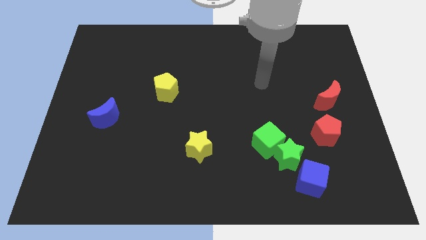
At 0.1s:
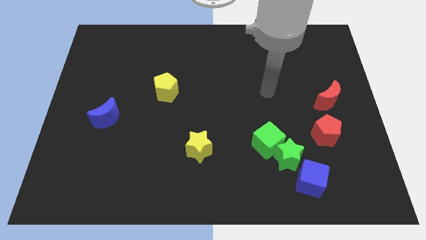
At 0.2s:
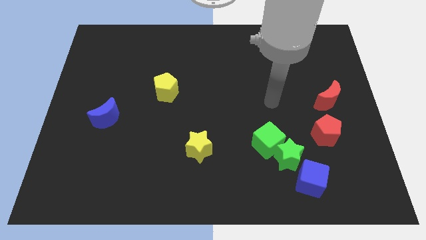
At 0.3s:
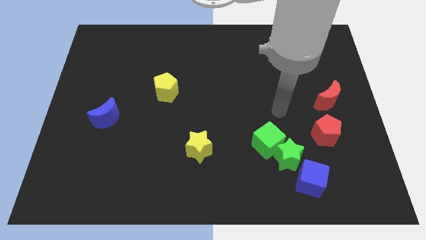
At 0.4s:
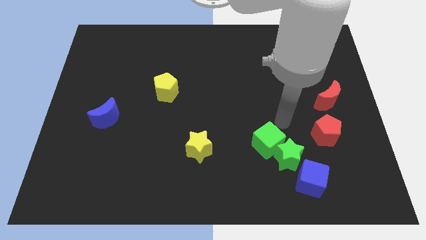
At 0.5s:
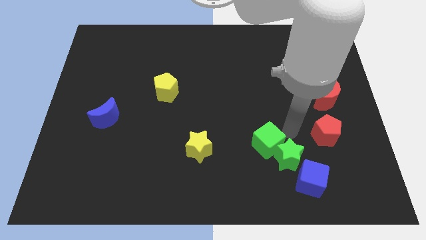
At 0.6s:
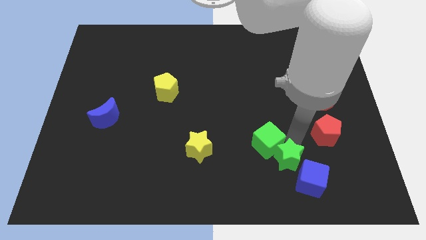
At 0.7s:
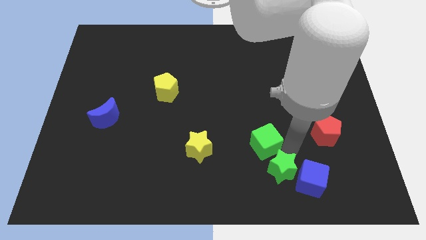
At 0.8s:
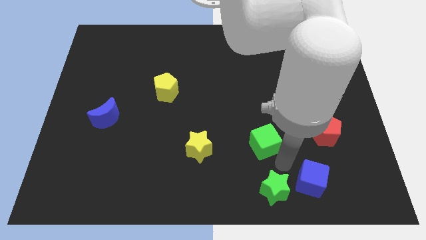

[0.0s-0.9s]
move the green cube away from the green star

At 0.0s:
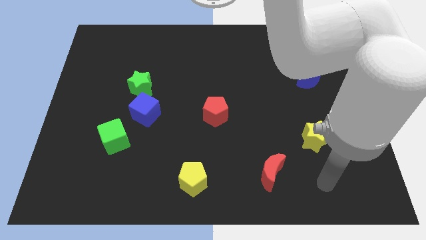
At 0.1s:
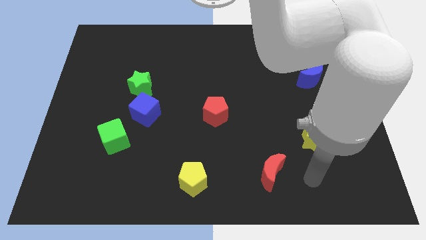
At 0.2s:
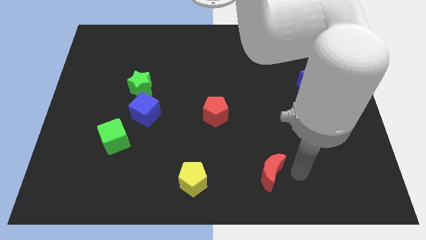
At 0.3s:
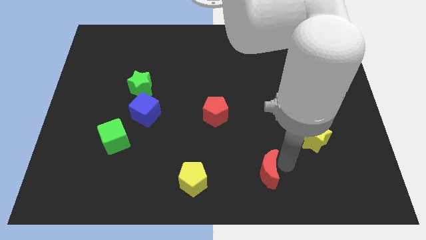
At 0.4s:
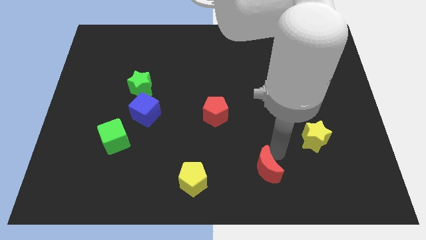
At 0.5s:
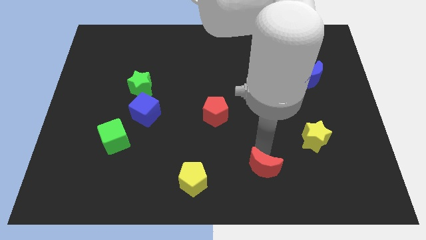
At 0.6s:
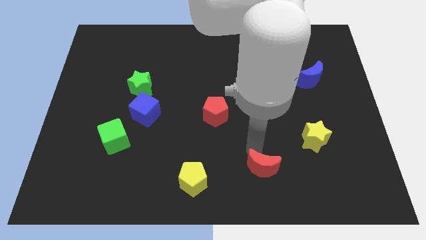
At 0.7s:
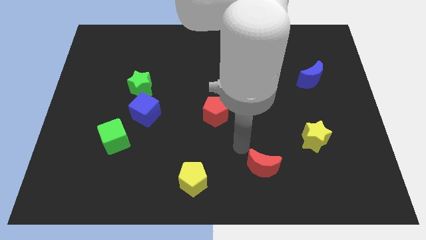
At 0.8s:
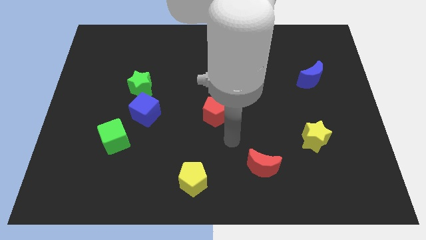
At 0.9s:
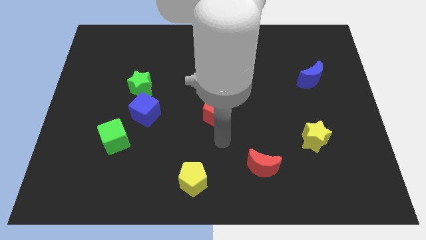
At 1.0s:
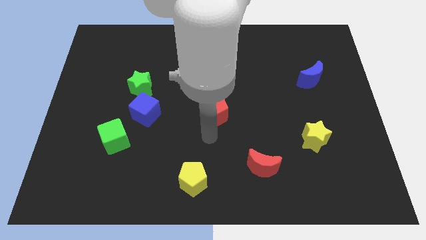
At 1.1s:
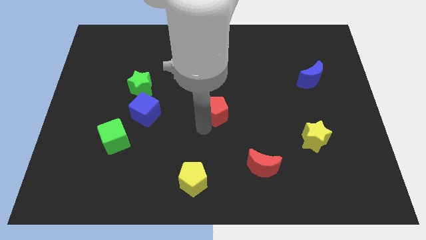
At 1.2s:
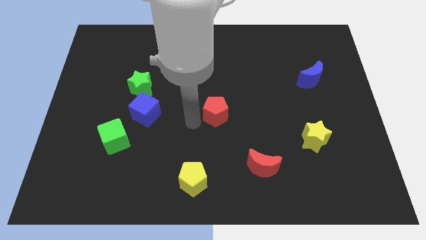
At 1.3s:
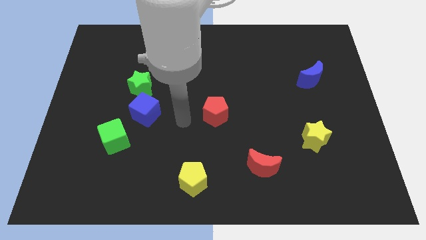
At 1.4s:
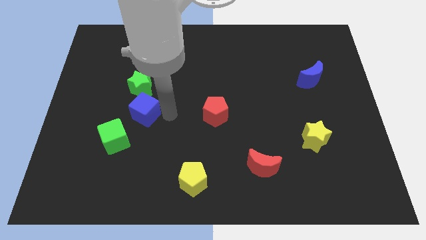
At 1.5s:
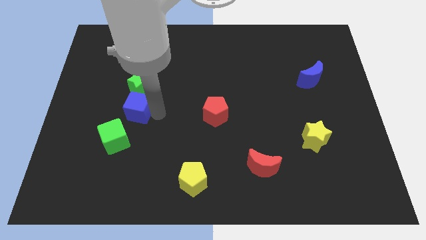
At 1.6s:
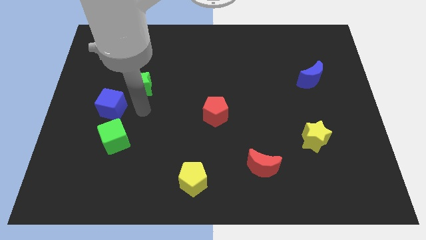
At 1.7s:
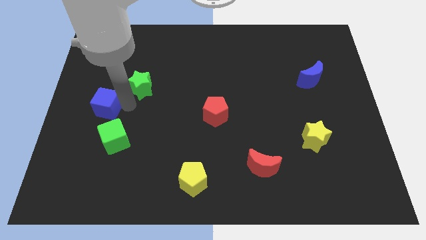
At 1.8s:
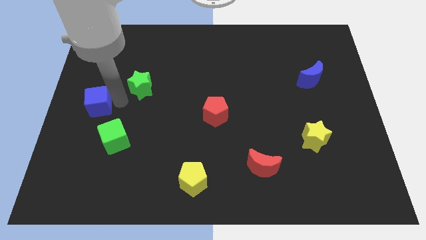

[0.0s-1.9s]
separate the green star from the blue cube

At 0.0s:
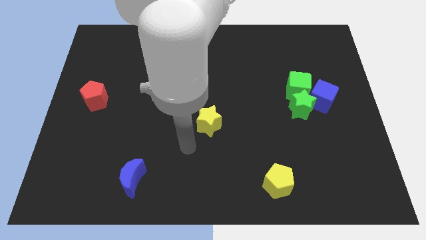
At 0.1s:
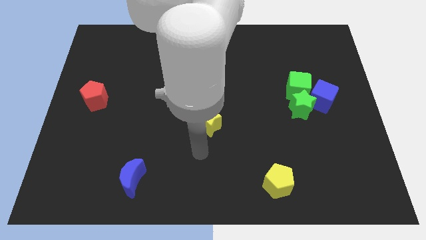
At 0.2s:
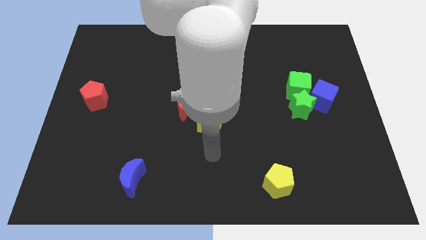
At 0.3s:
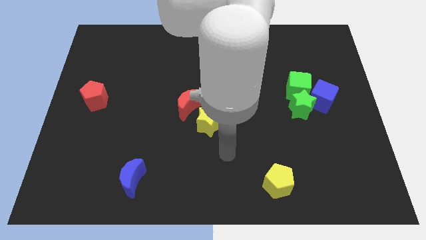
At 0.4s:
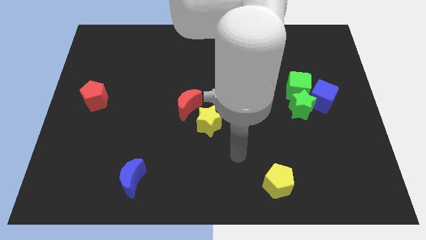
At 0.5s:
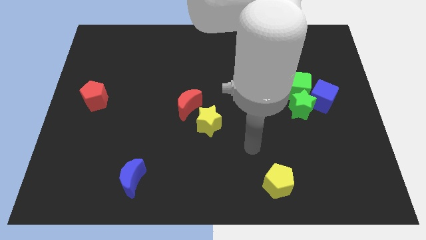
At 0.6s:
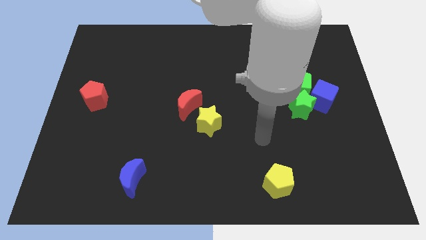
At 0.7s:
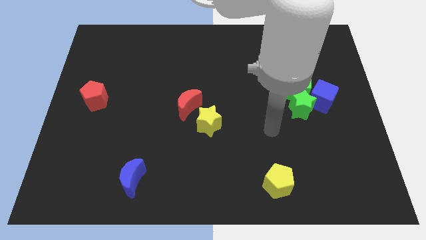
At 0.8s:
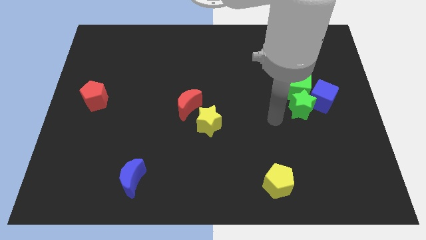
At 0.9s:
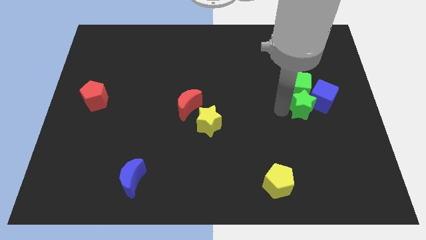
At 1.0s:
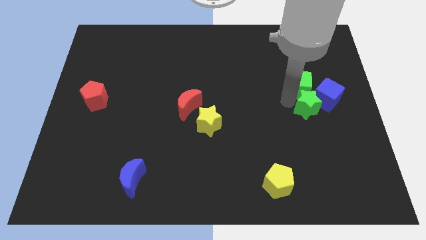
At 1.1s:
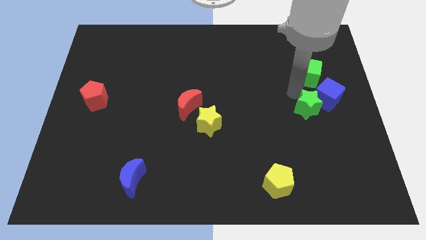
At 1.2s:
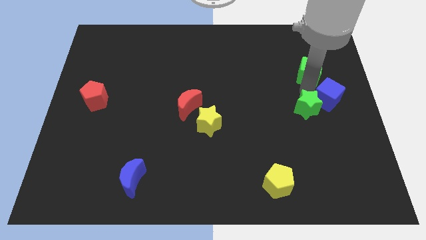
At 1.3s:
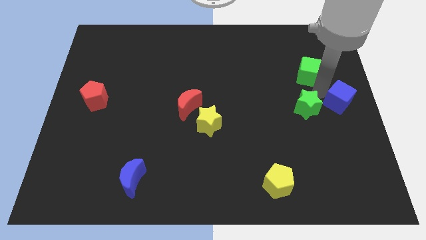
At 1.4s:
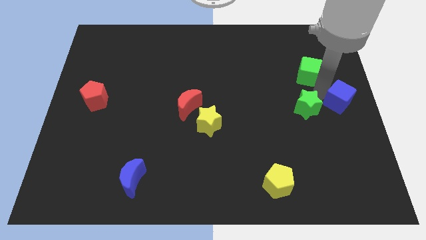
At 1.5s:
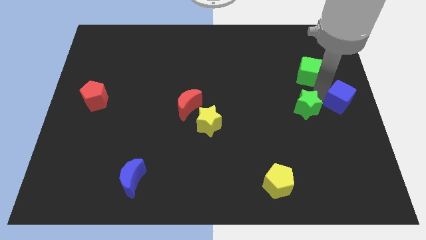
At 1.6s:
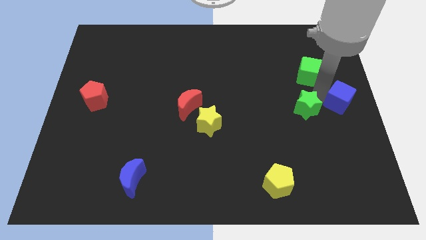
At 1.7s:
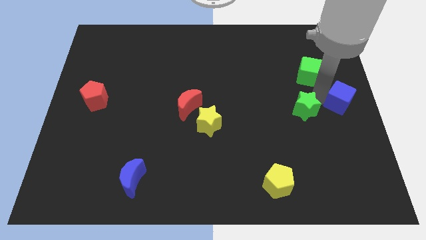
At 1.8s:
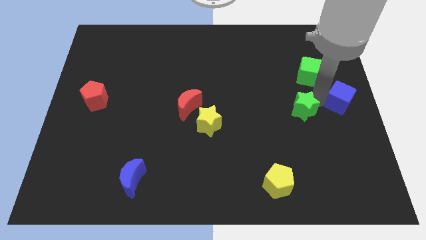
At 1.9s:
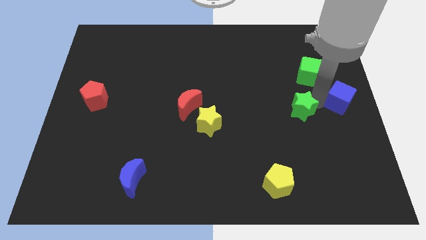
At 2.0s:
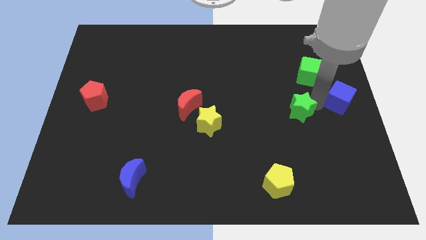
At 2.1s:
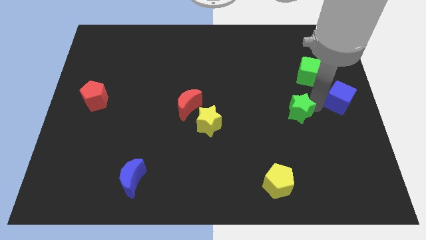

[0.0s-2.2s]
separate the green star from the blue cube and green cube

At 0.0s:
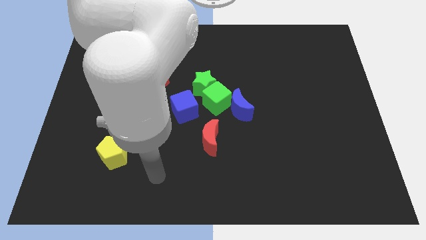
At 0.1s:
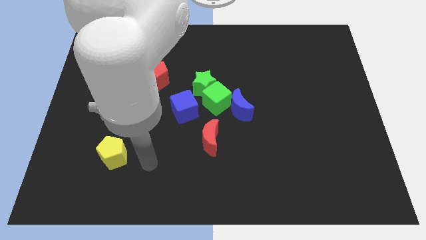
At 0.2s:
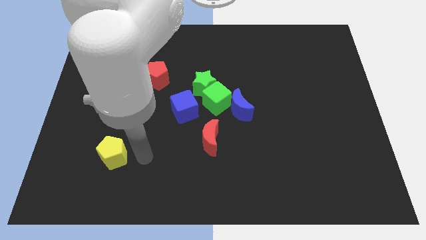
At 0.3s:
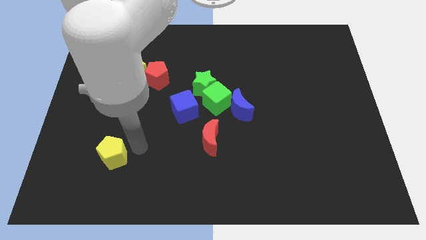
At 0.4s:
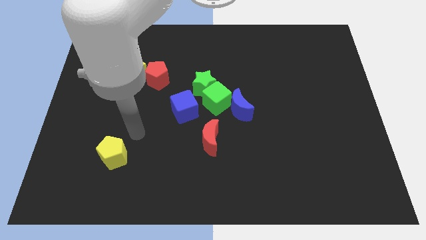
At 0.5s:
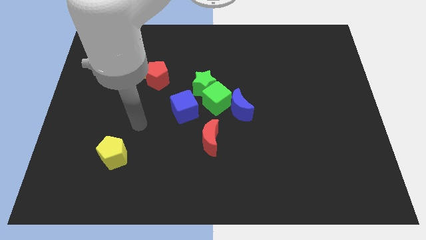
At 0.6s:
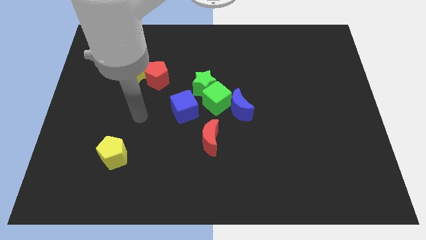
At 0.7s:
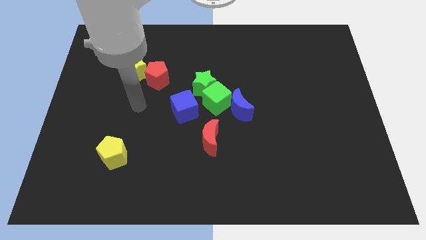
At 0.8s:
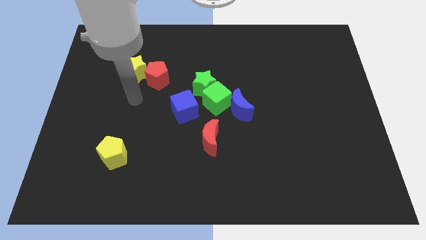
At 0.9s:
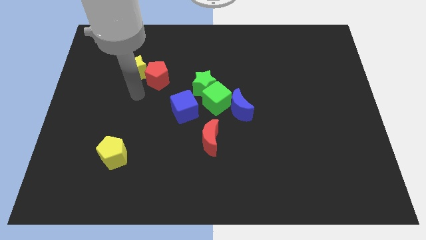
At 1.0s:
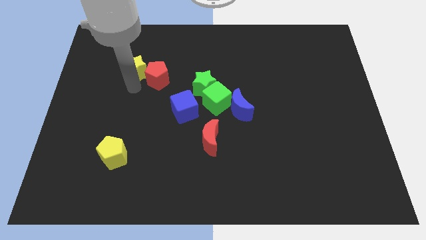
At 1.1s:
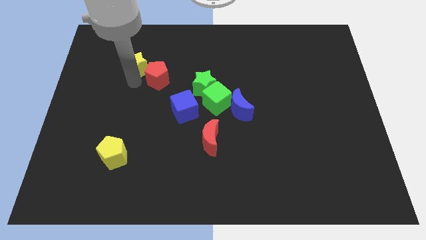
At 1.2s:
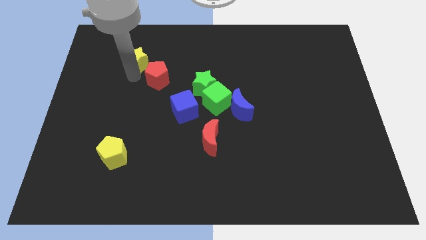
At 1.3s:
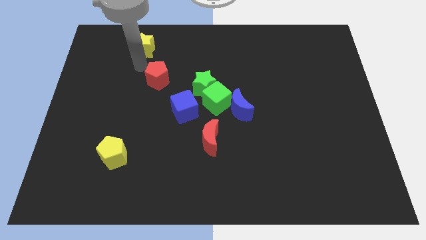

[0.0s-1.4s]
move the red pentagon away from the yellow star

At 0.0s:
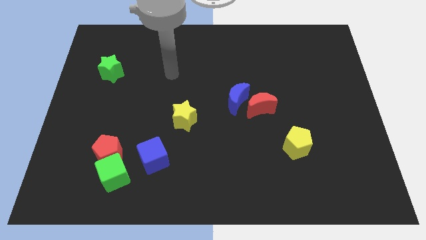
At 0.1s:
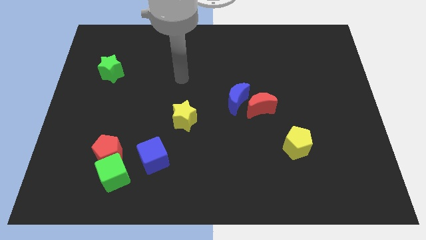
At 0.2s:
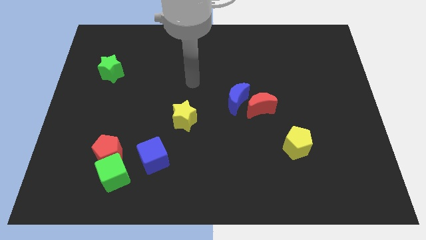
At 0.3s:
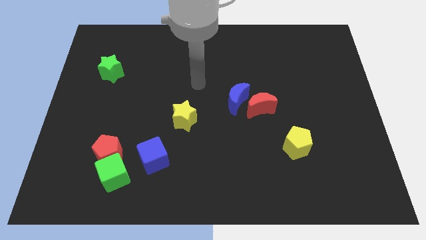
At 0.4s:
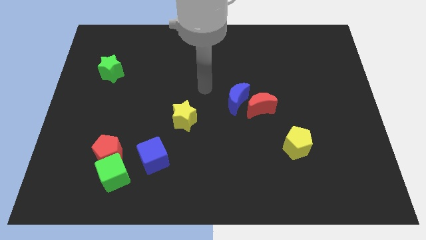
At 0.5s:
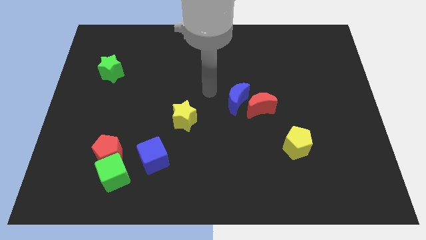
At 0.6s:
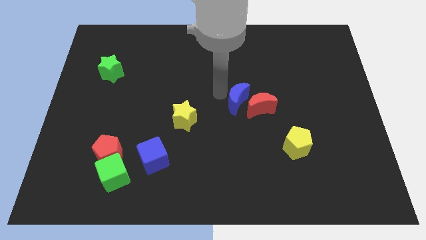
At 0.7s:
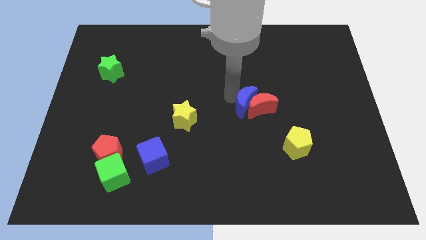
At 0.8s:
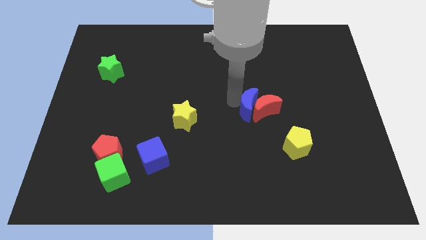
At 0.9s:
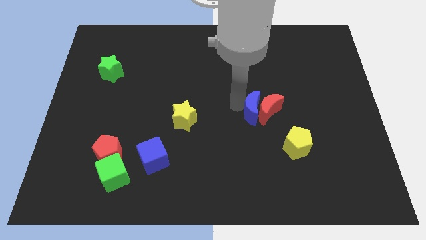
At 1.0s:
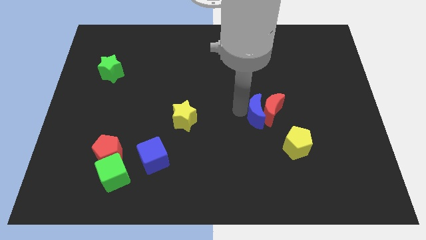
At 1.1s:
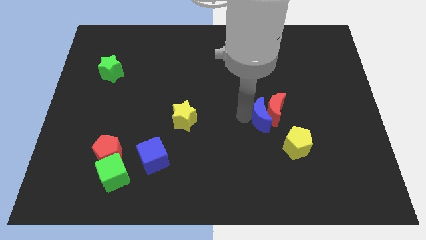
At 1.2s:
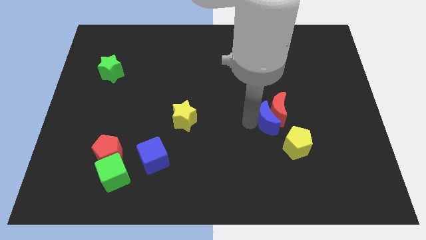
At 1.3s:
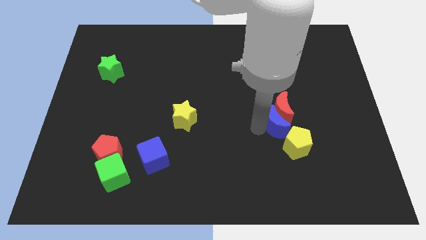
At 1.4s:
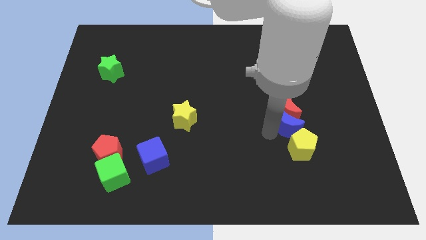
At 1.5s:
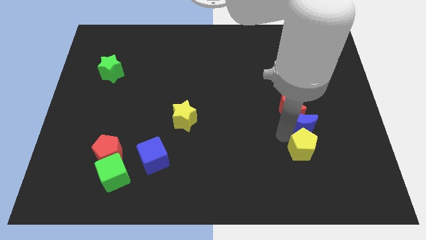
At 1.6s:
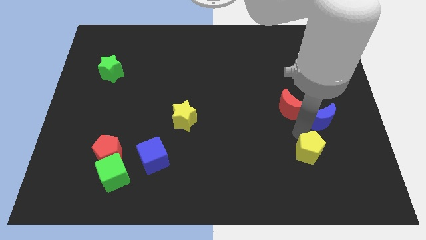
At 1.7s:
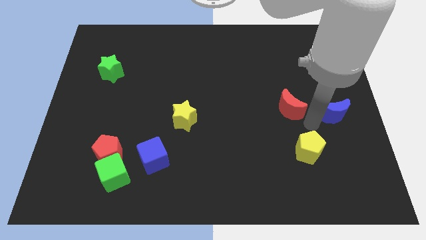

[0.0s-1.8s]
pull the red moon apart from the blue moon

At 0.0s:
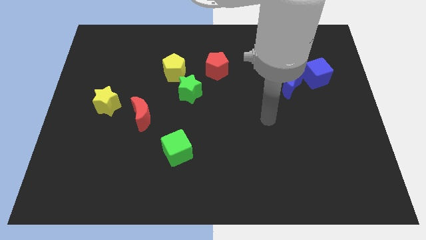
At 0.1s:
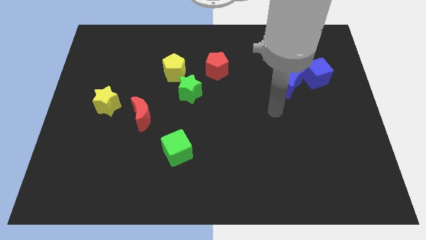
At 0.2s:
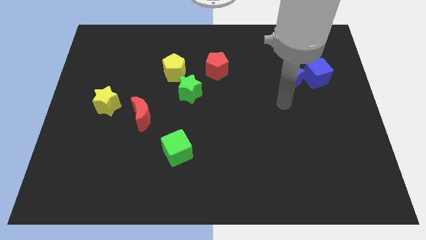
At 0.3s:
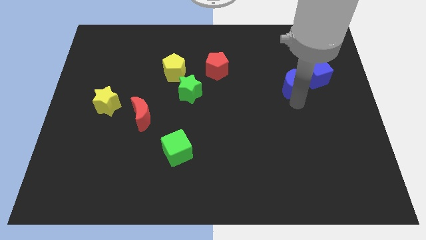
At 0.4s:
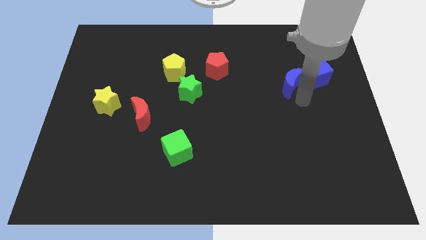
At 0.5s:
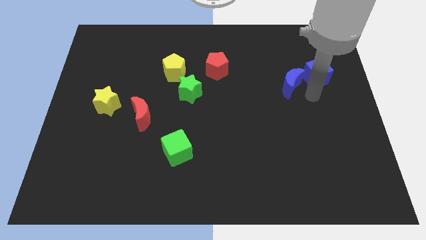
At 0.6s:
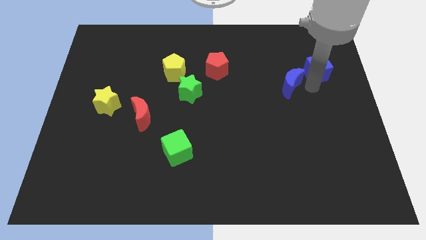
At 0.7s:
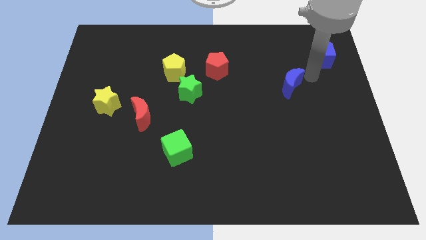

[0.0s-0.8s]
separate the blue moon from the blue cube

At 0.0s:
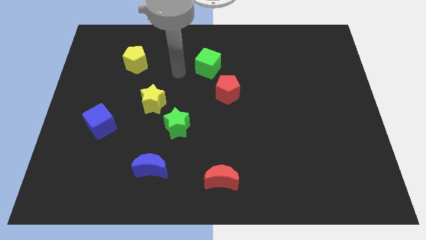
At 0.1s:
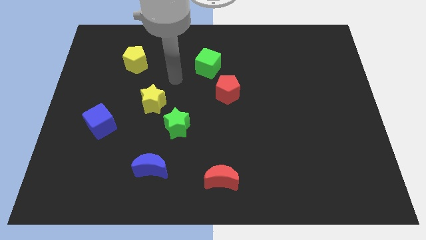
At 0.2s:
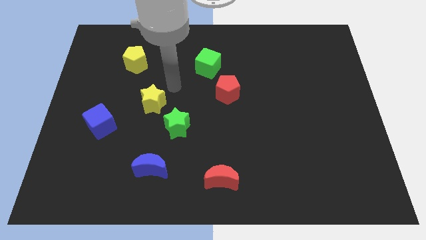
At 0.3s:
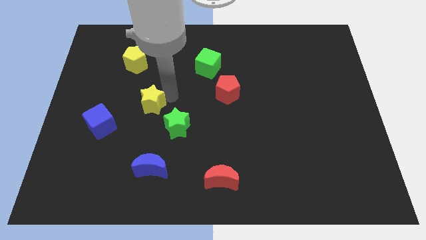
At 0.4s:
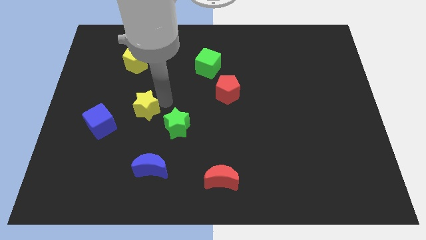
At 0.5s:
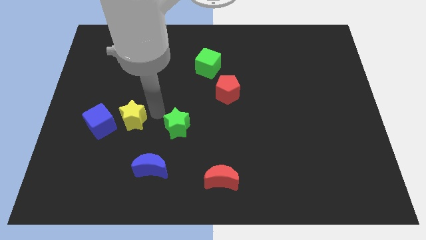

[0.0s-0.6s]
move the green star away from the yellow star
